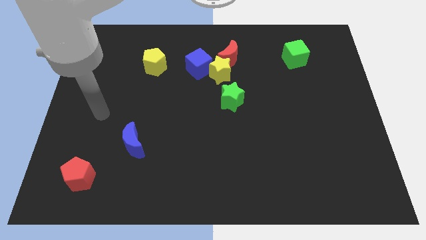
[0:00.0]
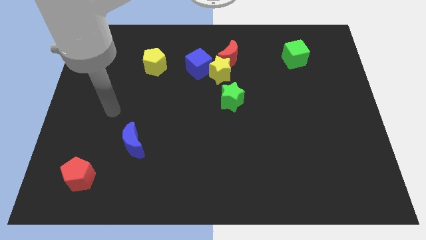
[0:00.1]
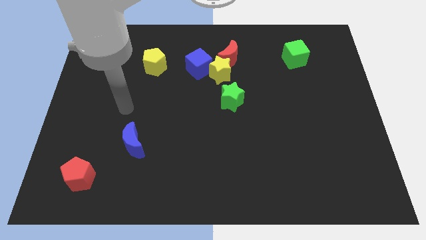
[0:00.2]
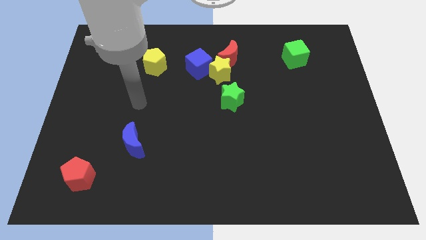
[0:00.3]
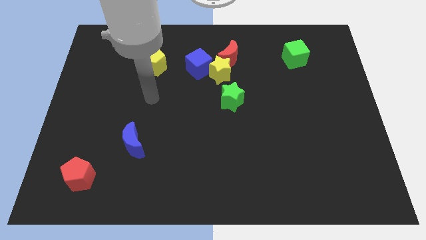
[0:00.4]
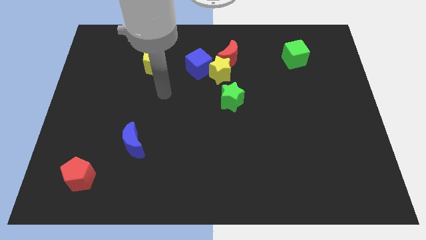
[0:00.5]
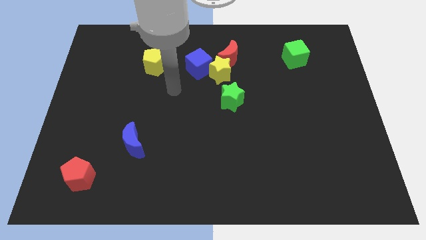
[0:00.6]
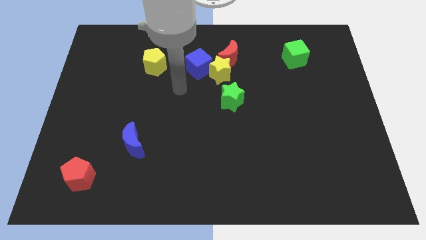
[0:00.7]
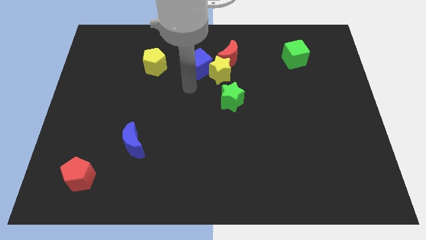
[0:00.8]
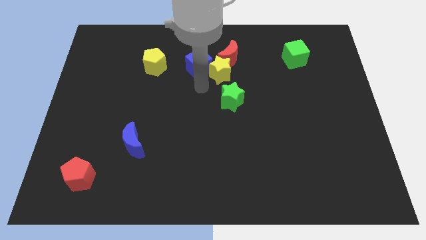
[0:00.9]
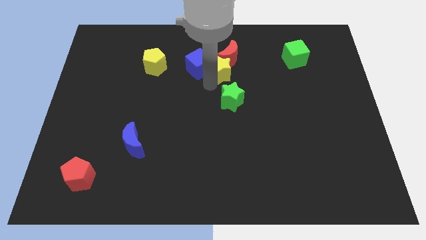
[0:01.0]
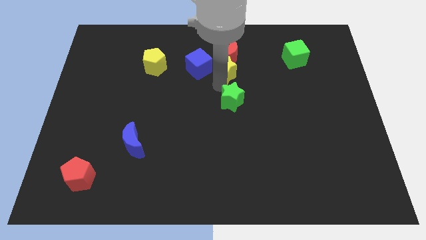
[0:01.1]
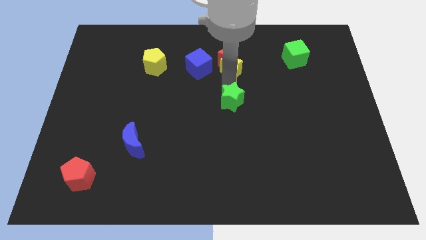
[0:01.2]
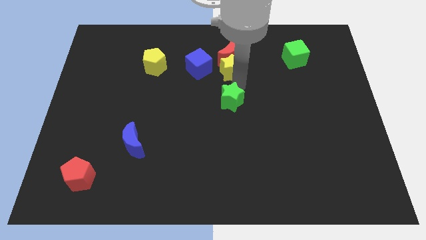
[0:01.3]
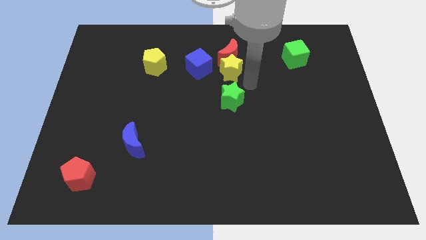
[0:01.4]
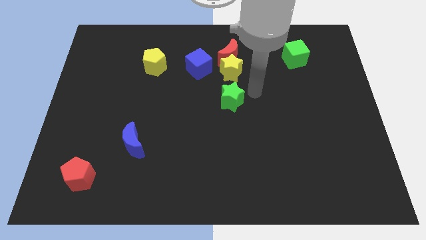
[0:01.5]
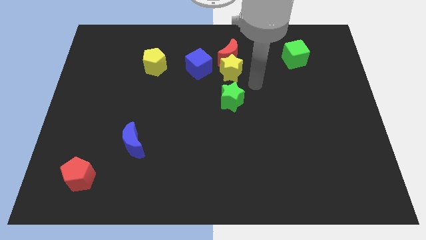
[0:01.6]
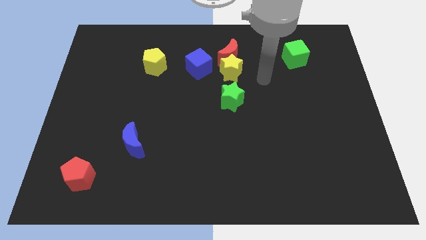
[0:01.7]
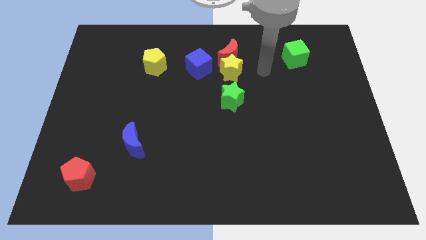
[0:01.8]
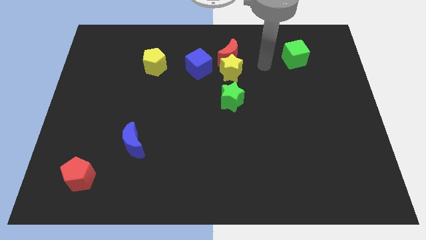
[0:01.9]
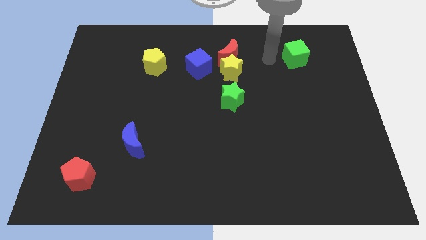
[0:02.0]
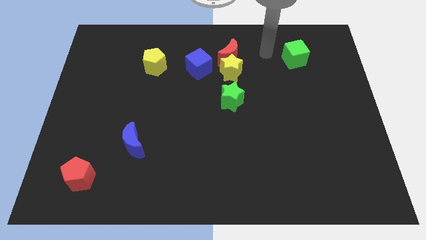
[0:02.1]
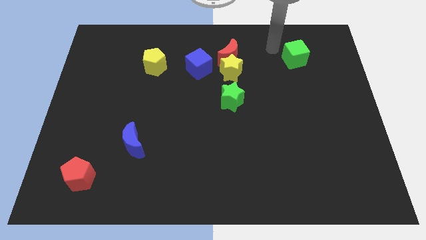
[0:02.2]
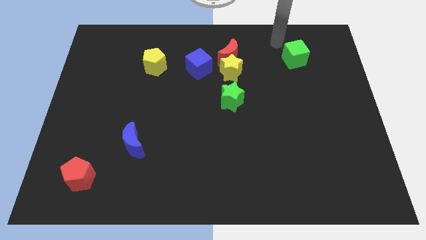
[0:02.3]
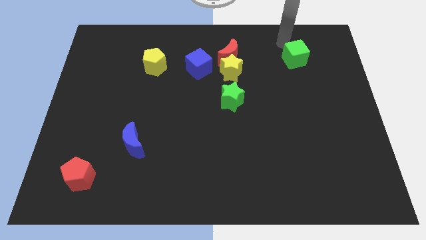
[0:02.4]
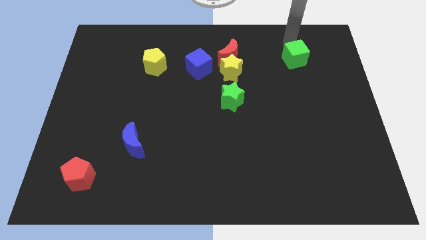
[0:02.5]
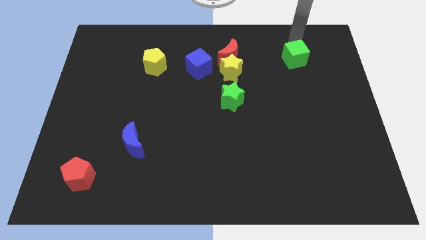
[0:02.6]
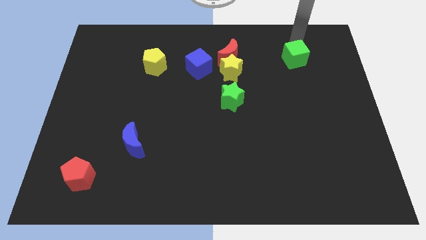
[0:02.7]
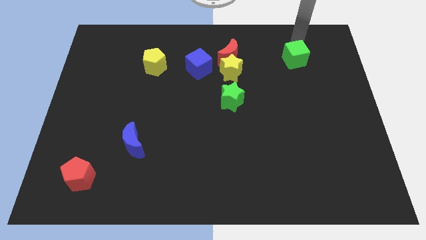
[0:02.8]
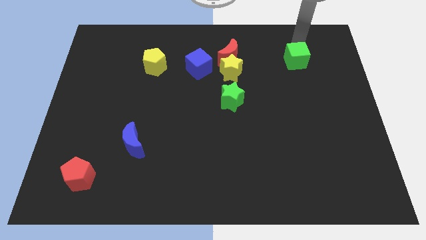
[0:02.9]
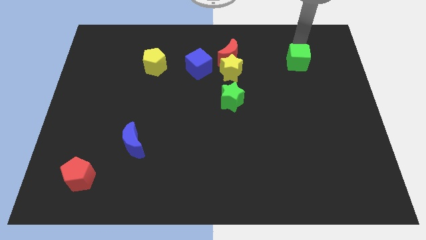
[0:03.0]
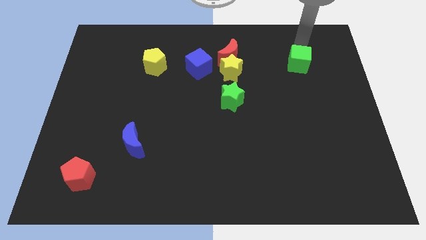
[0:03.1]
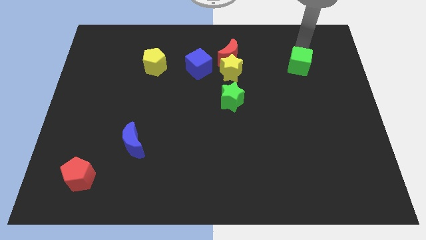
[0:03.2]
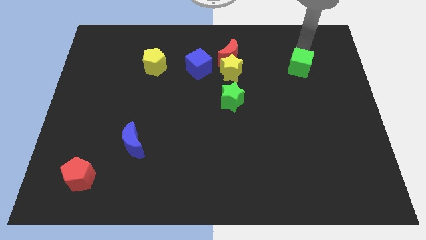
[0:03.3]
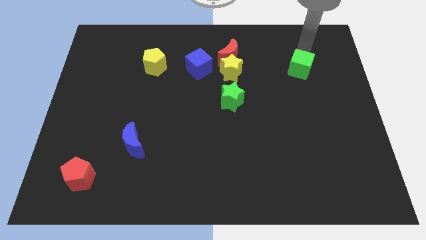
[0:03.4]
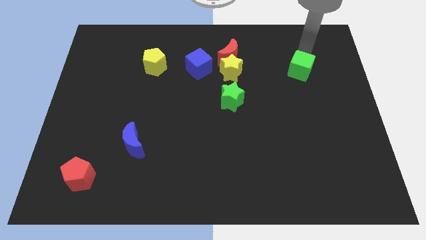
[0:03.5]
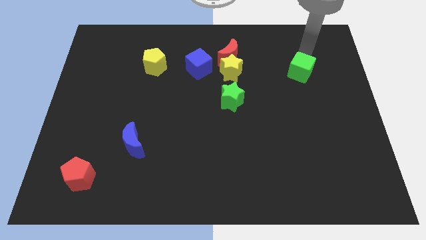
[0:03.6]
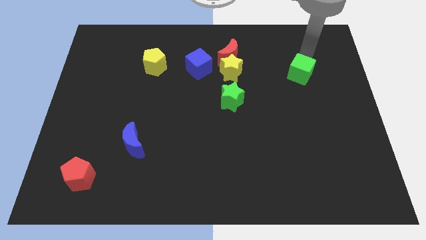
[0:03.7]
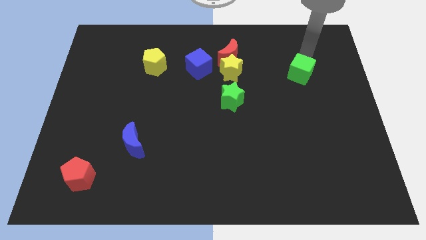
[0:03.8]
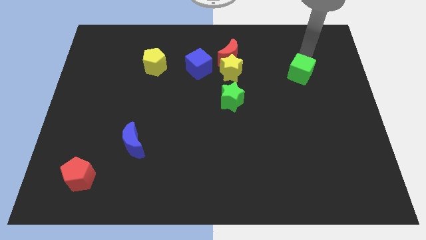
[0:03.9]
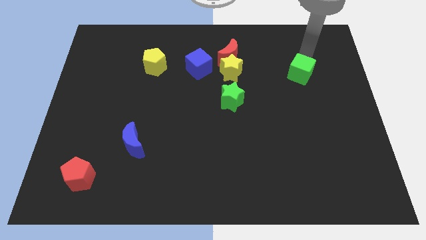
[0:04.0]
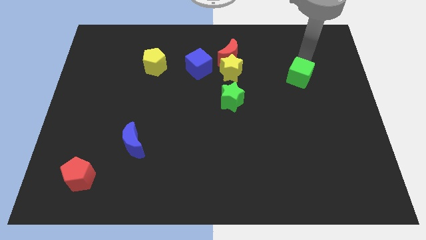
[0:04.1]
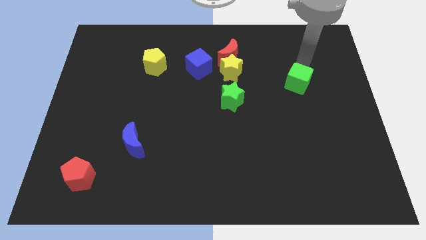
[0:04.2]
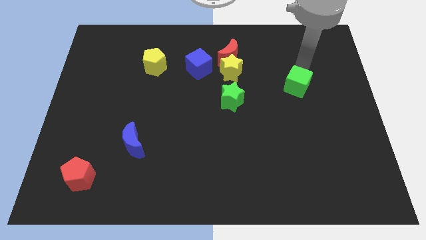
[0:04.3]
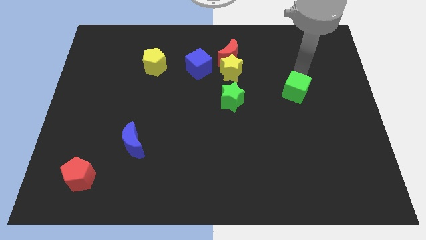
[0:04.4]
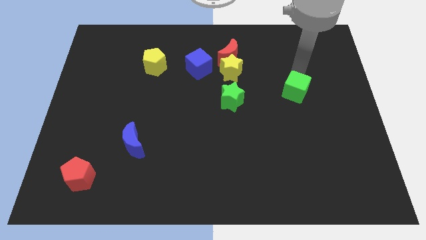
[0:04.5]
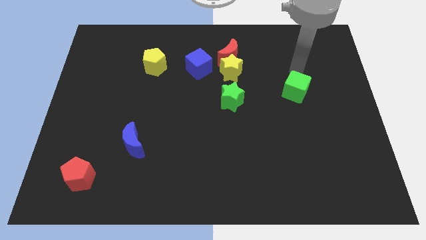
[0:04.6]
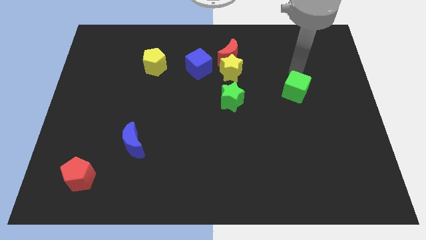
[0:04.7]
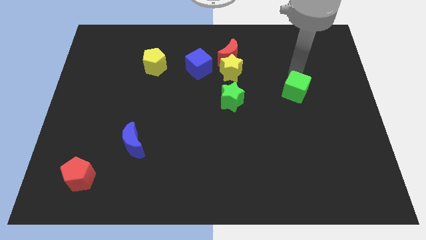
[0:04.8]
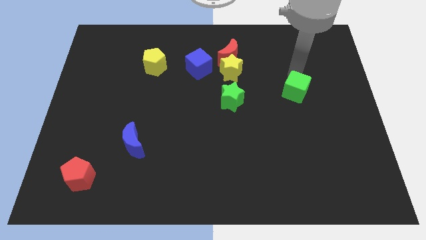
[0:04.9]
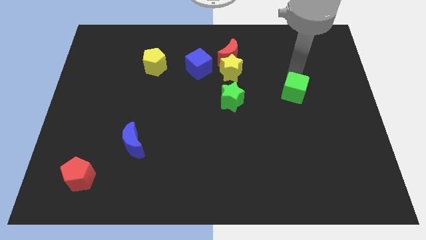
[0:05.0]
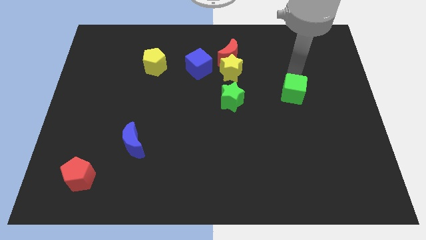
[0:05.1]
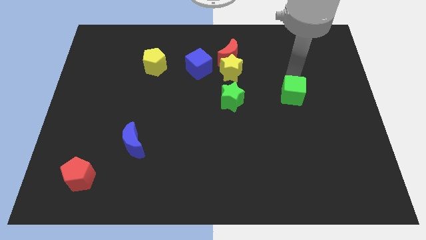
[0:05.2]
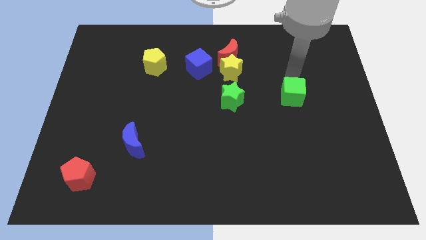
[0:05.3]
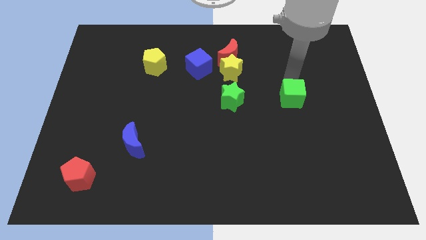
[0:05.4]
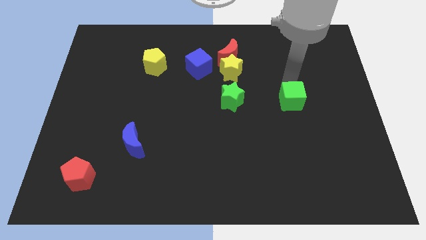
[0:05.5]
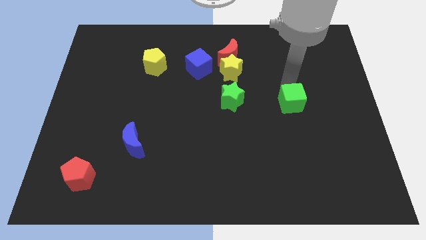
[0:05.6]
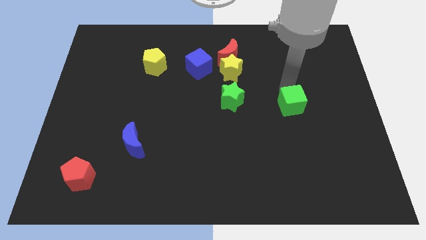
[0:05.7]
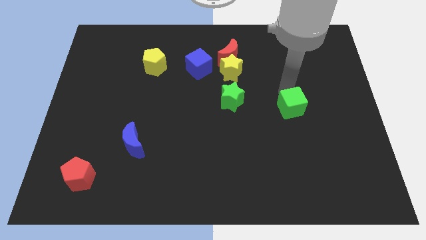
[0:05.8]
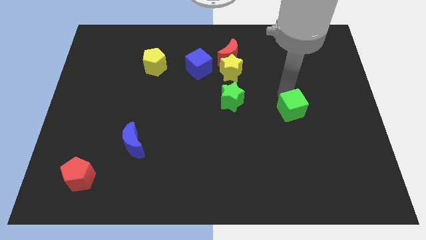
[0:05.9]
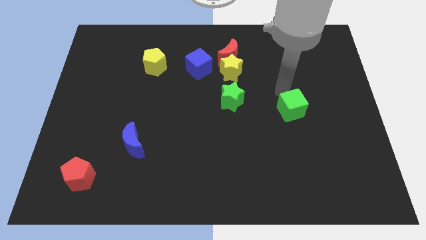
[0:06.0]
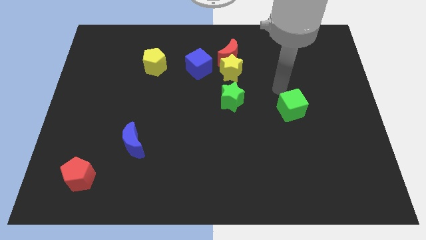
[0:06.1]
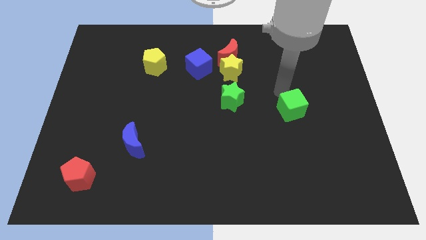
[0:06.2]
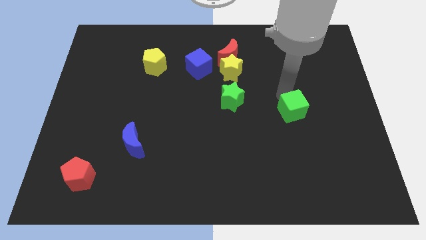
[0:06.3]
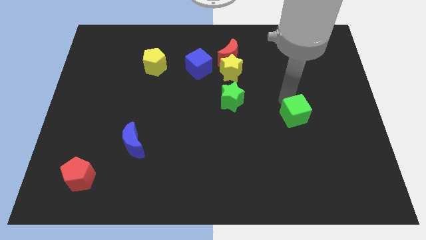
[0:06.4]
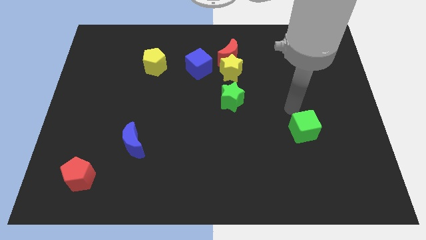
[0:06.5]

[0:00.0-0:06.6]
move the green cube down

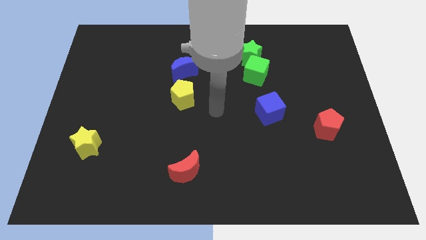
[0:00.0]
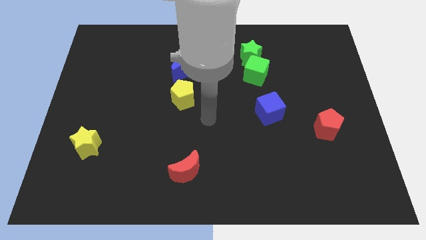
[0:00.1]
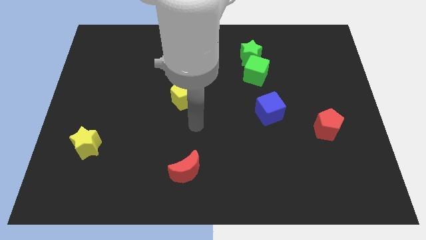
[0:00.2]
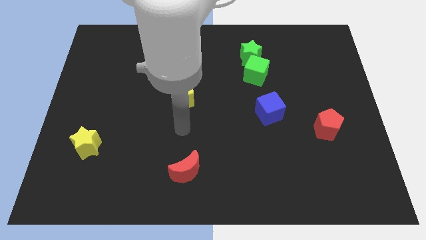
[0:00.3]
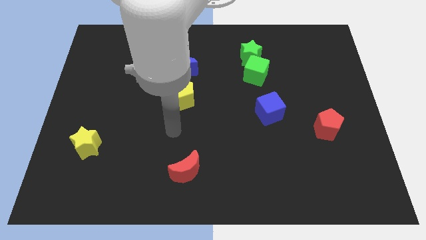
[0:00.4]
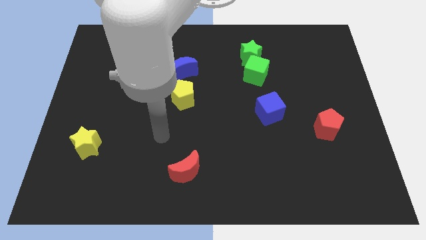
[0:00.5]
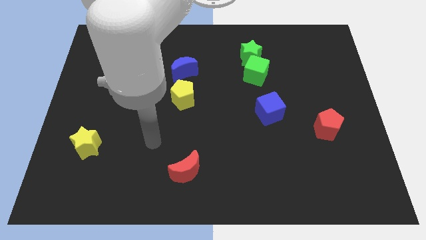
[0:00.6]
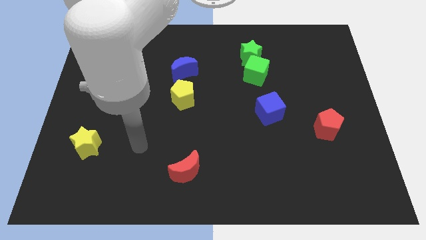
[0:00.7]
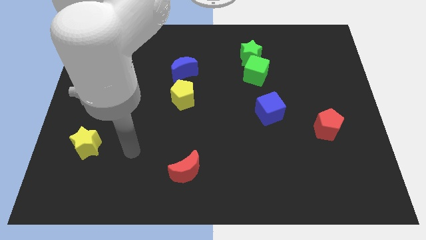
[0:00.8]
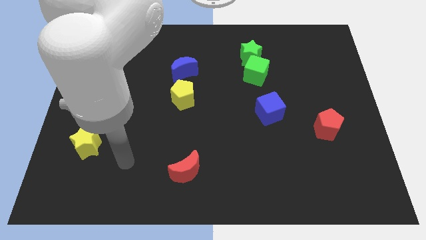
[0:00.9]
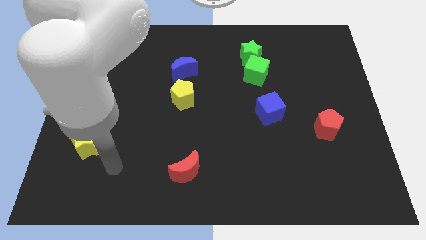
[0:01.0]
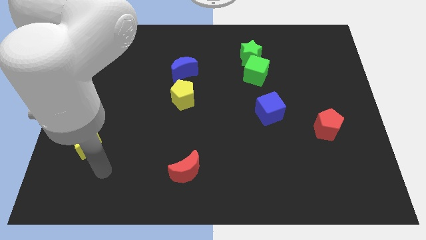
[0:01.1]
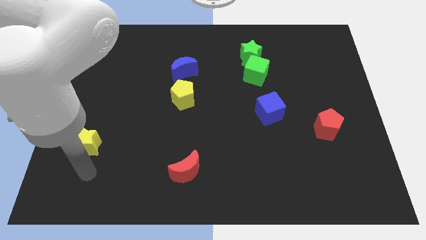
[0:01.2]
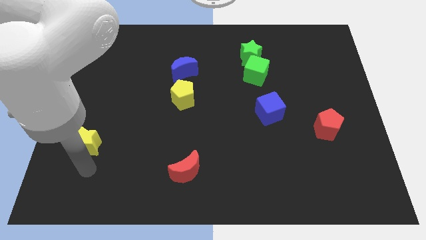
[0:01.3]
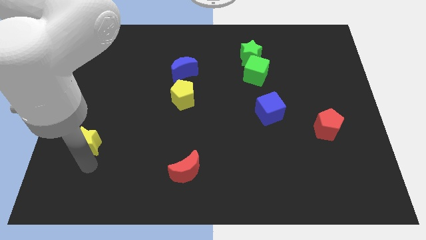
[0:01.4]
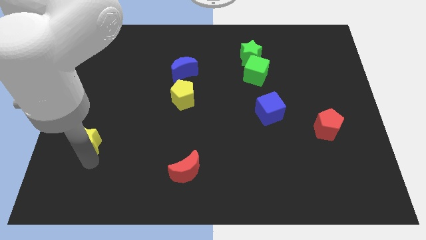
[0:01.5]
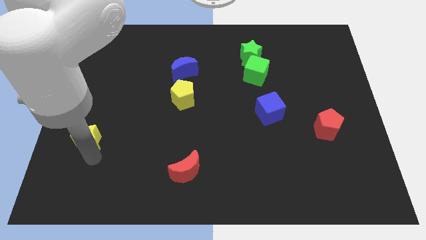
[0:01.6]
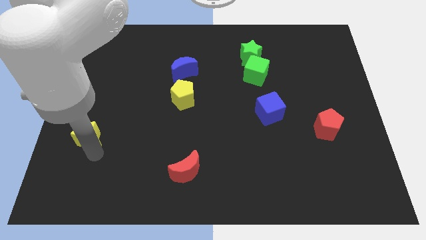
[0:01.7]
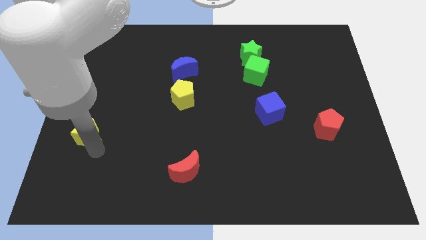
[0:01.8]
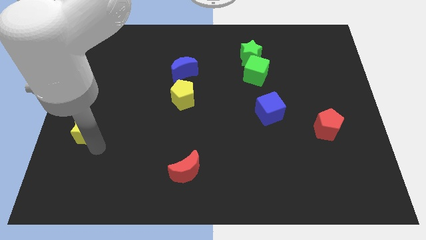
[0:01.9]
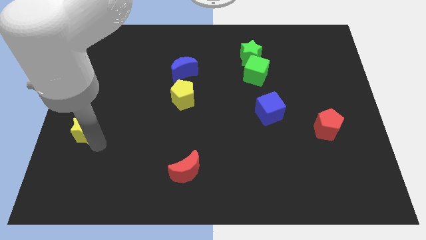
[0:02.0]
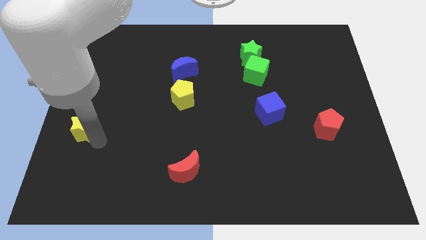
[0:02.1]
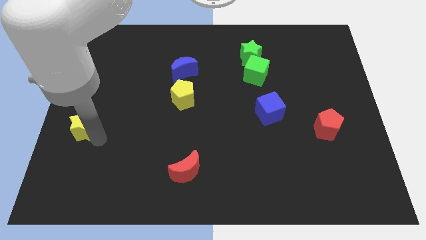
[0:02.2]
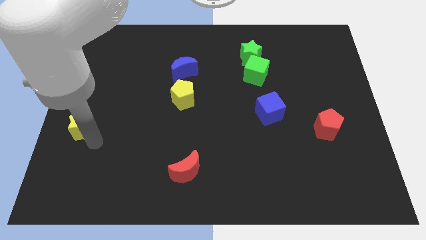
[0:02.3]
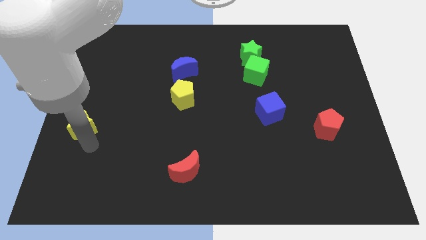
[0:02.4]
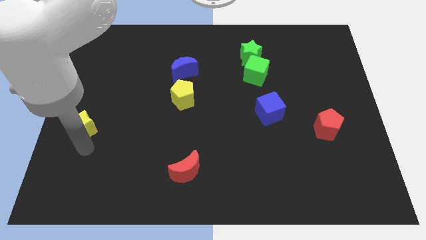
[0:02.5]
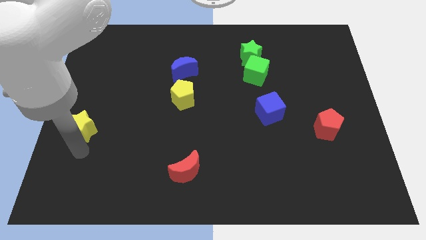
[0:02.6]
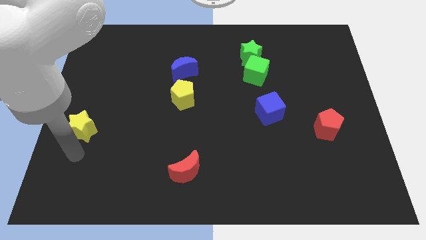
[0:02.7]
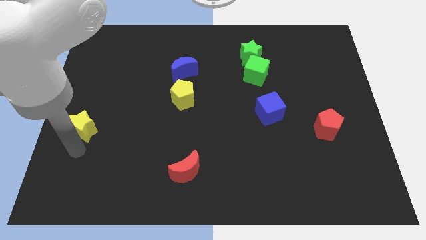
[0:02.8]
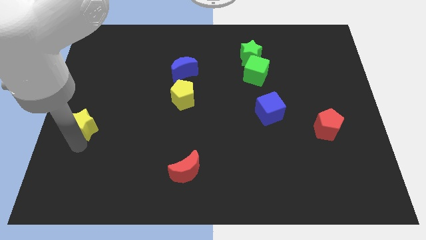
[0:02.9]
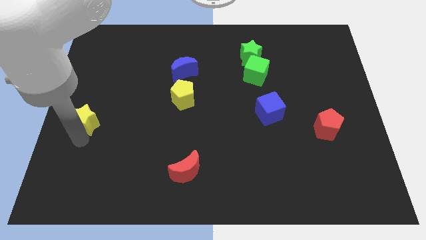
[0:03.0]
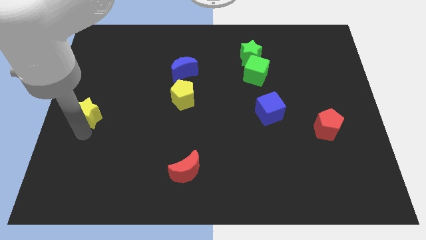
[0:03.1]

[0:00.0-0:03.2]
slightly slide the yellow star up
